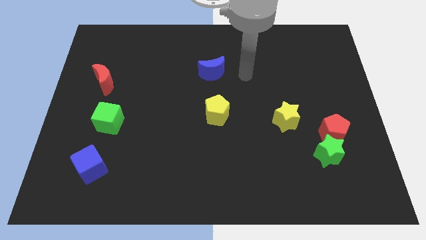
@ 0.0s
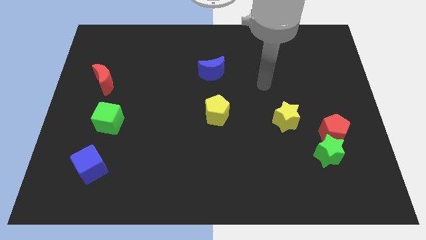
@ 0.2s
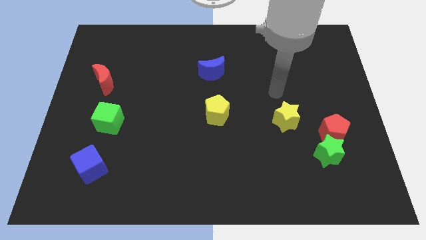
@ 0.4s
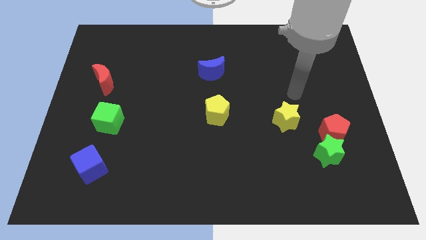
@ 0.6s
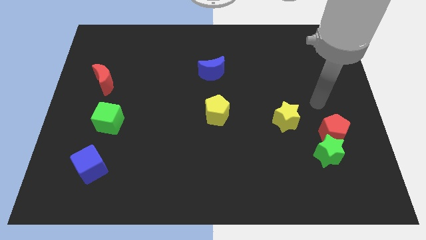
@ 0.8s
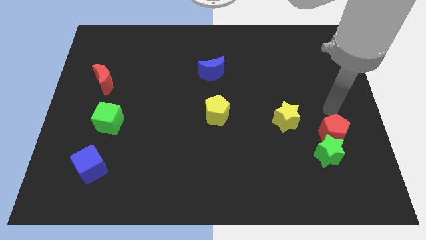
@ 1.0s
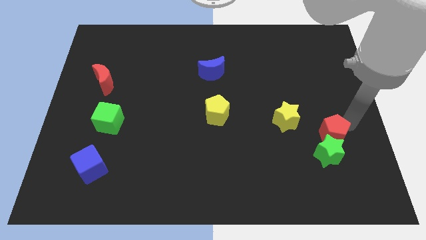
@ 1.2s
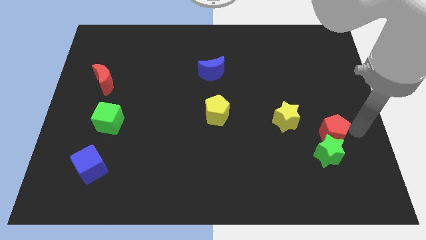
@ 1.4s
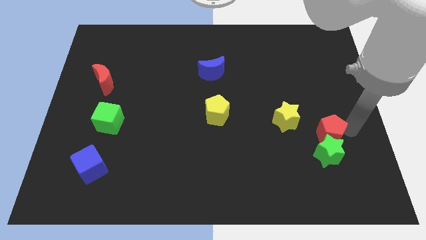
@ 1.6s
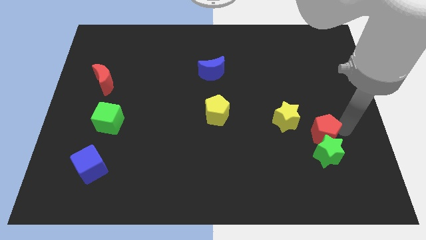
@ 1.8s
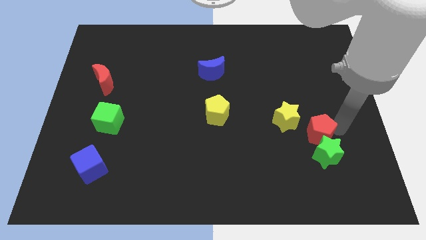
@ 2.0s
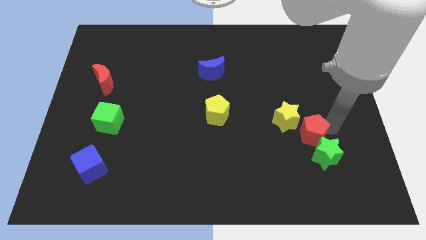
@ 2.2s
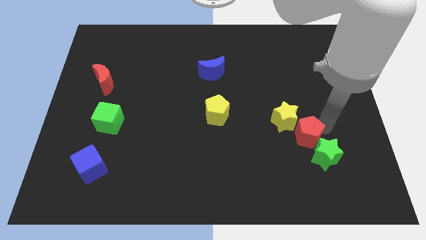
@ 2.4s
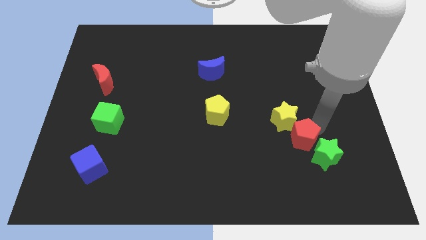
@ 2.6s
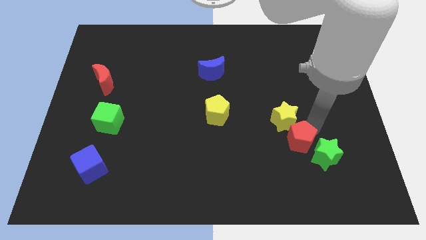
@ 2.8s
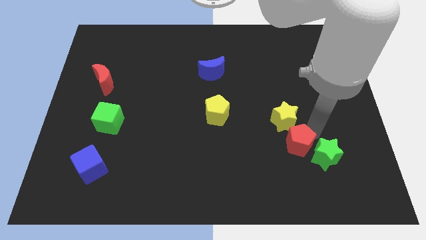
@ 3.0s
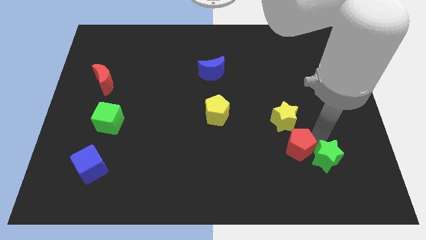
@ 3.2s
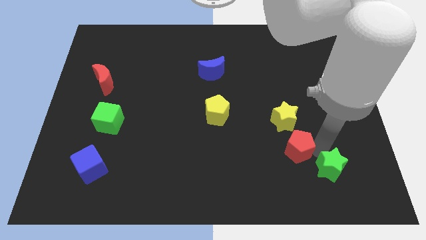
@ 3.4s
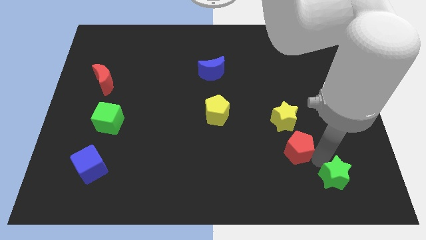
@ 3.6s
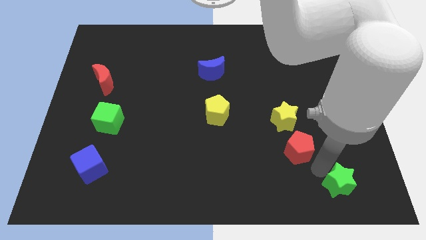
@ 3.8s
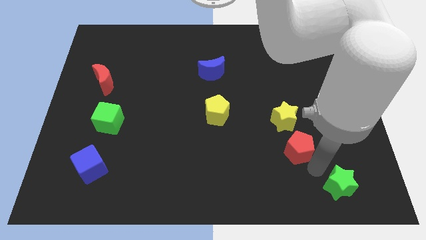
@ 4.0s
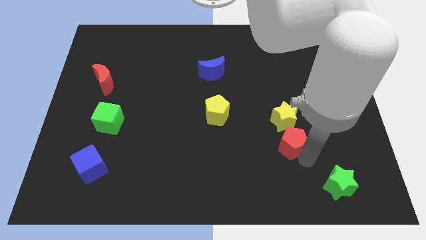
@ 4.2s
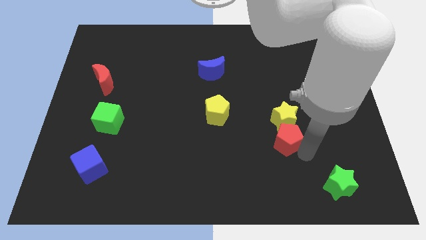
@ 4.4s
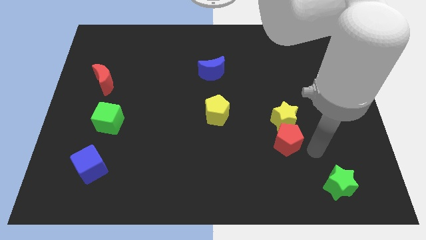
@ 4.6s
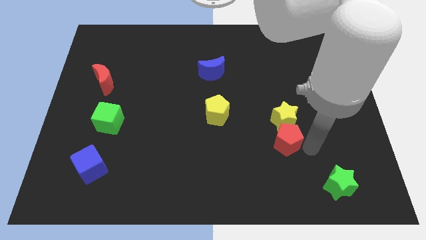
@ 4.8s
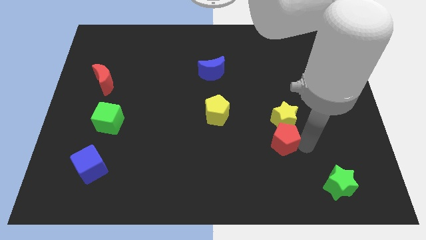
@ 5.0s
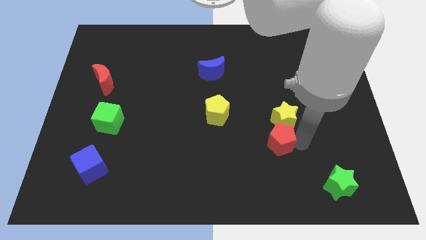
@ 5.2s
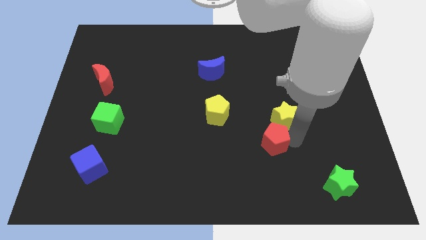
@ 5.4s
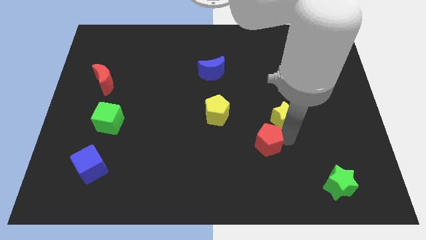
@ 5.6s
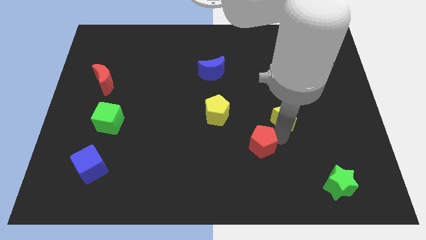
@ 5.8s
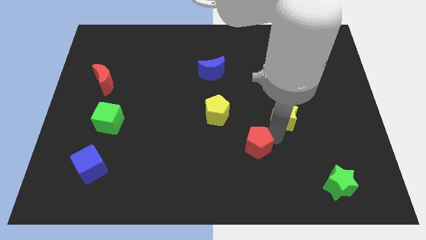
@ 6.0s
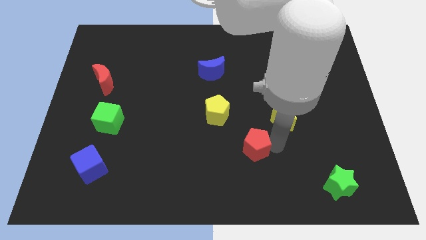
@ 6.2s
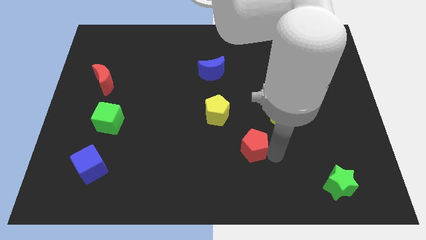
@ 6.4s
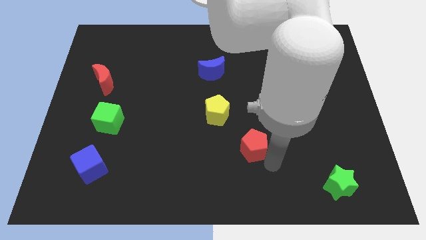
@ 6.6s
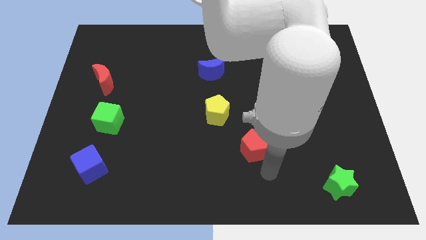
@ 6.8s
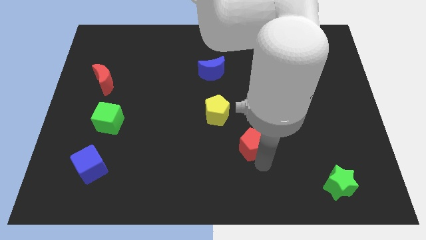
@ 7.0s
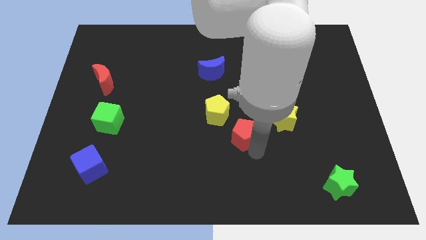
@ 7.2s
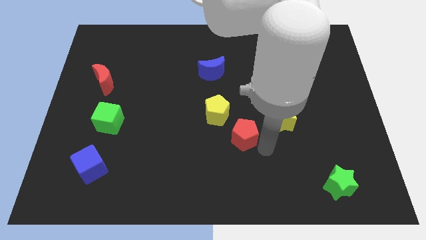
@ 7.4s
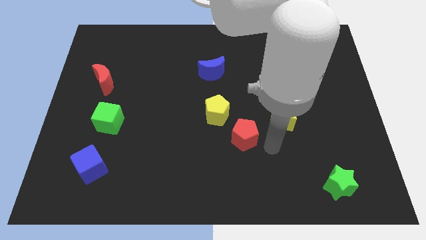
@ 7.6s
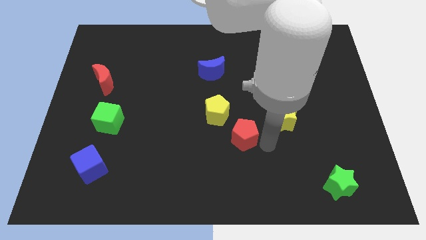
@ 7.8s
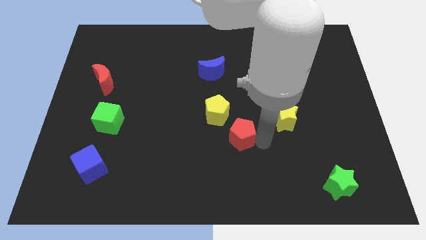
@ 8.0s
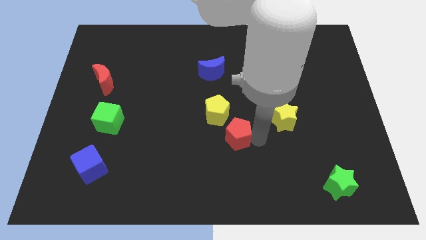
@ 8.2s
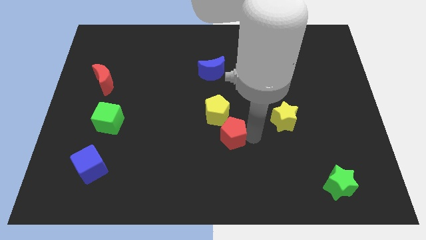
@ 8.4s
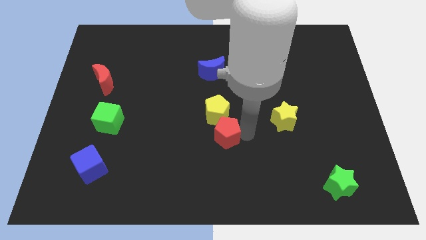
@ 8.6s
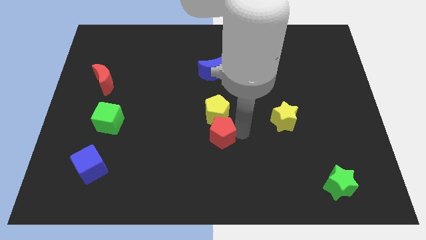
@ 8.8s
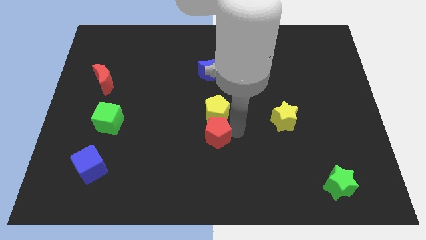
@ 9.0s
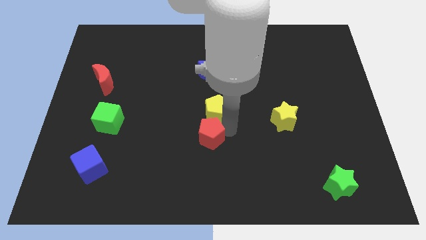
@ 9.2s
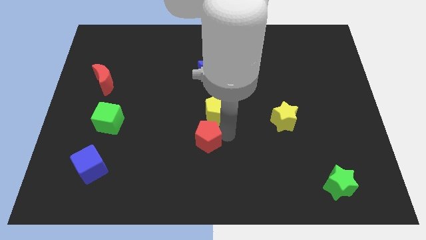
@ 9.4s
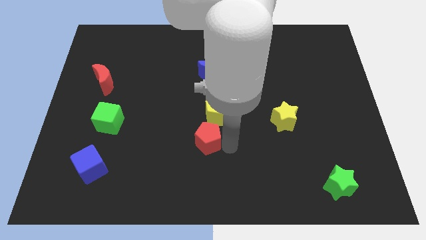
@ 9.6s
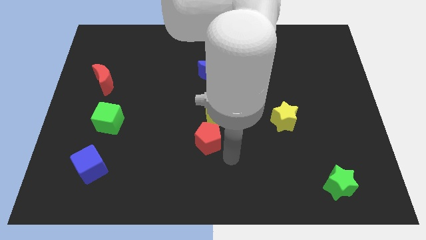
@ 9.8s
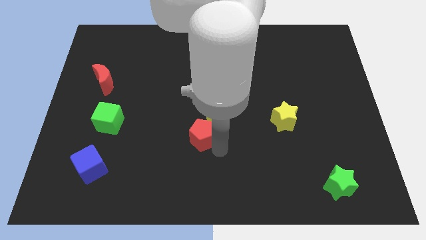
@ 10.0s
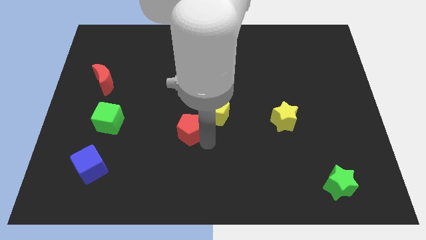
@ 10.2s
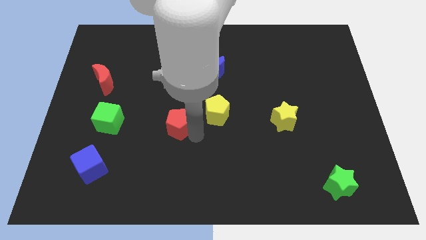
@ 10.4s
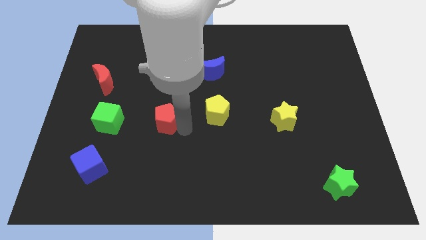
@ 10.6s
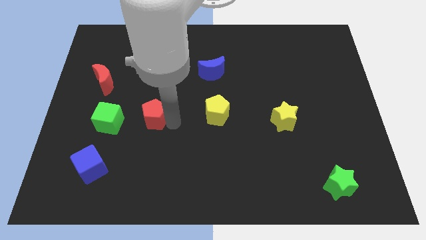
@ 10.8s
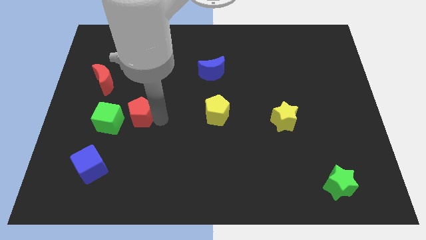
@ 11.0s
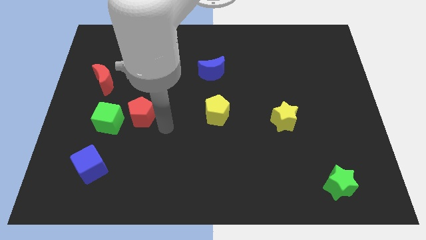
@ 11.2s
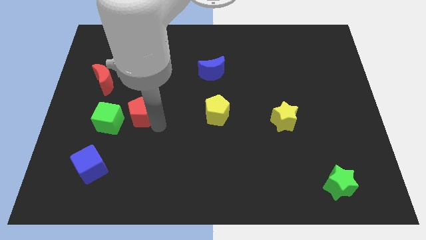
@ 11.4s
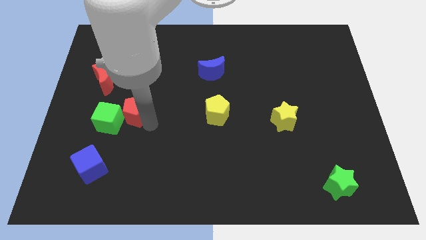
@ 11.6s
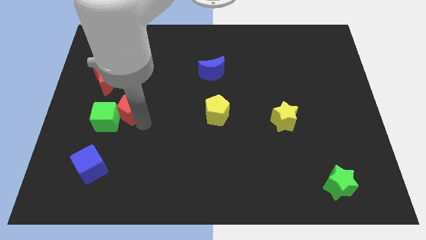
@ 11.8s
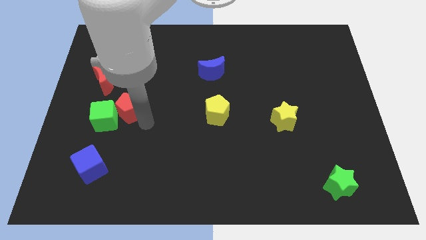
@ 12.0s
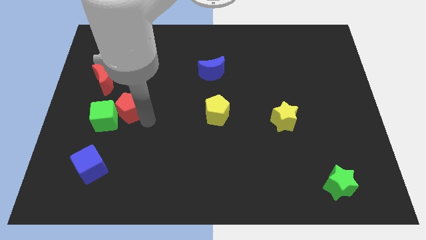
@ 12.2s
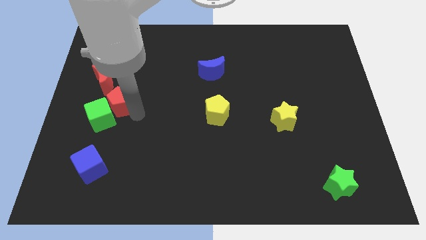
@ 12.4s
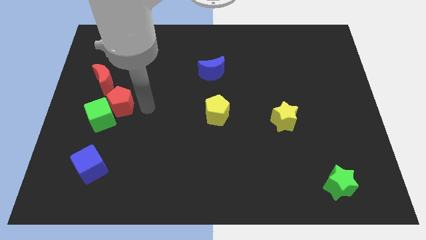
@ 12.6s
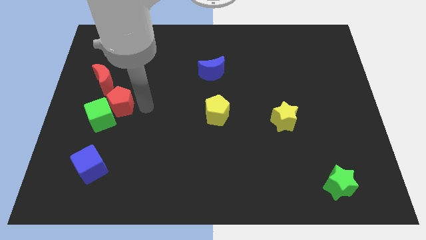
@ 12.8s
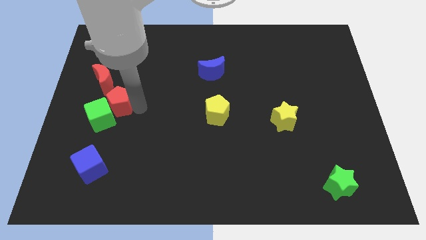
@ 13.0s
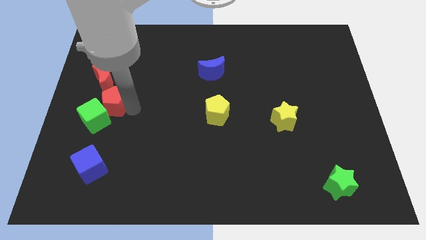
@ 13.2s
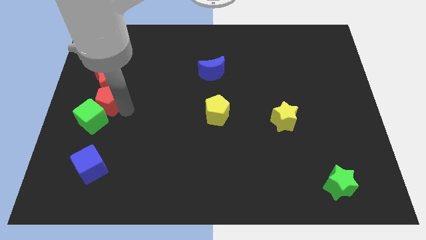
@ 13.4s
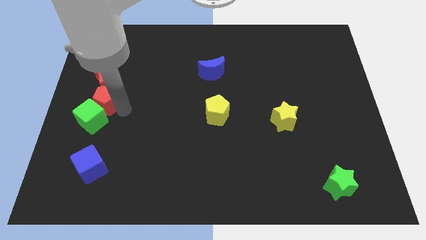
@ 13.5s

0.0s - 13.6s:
put the red pentagon to the left side
